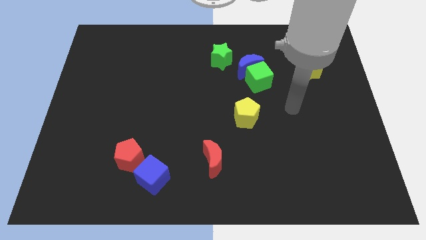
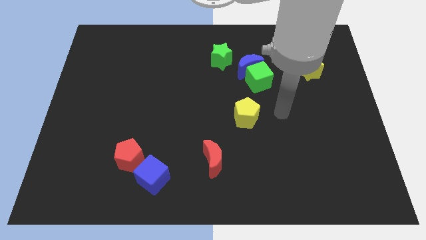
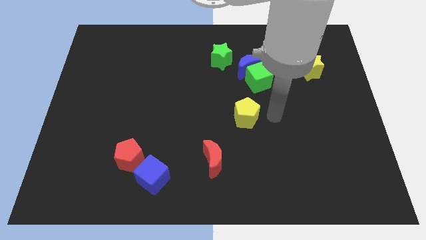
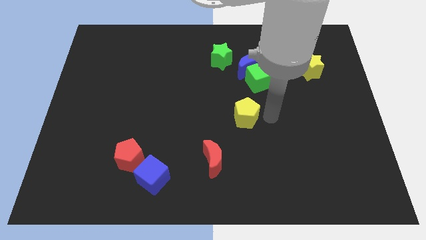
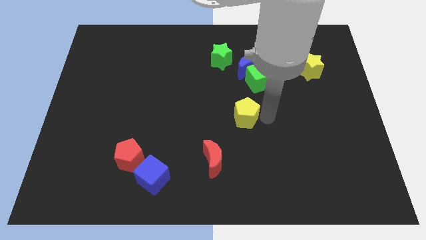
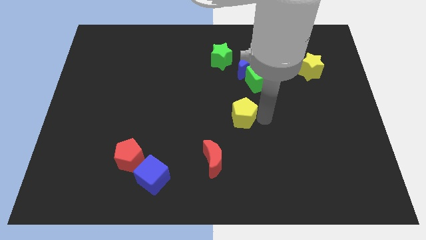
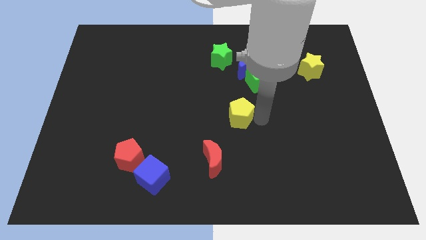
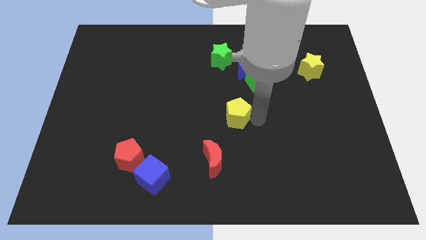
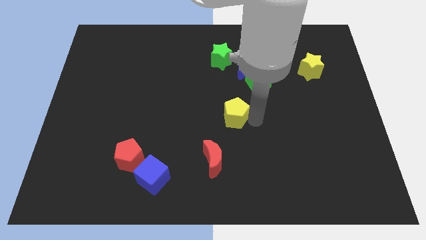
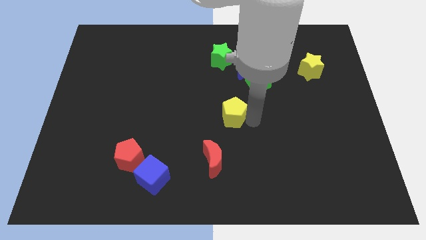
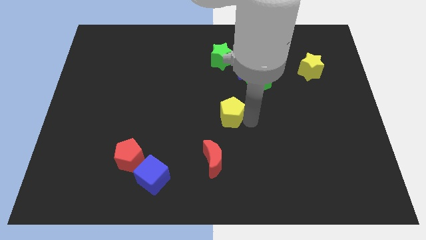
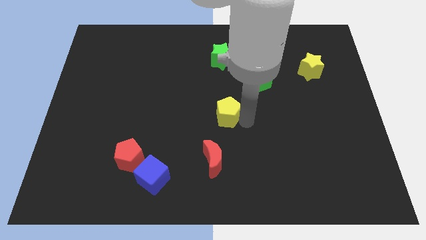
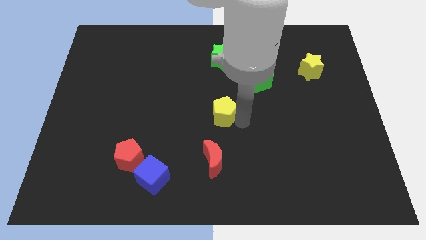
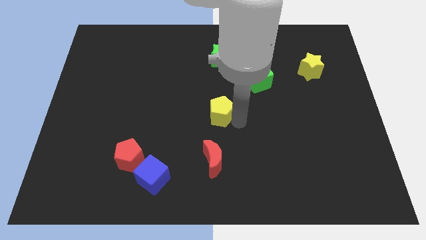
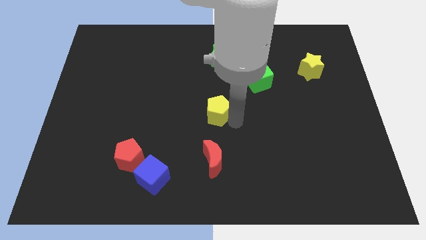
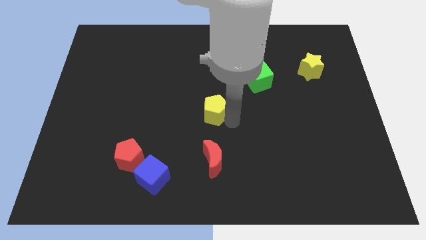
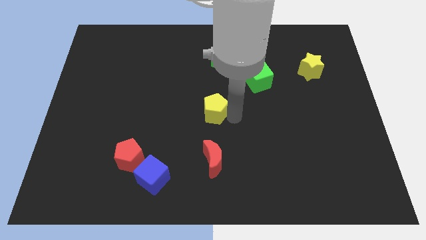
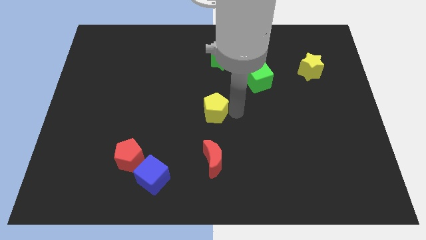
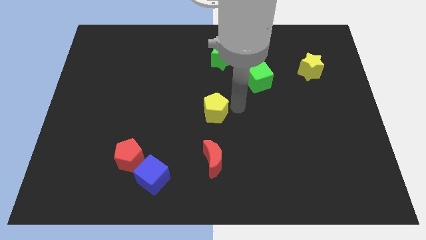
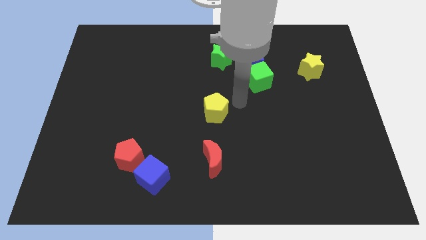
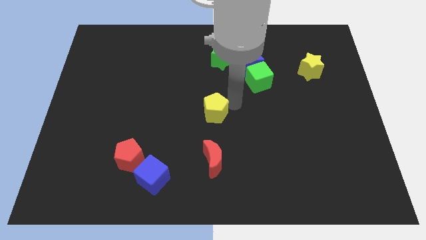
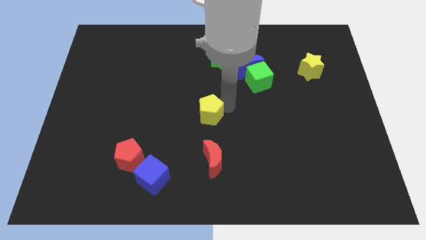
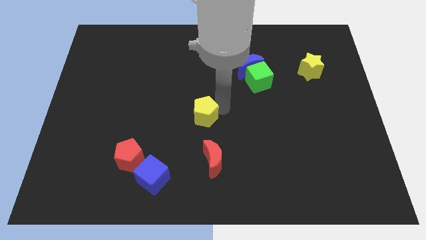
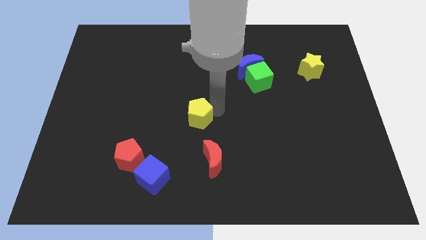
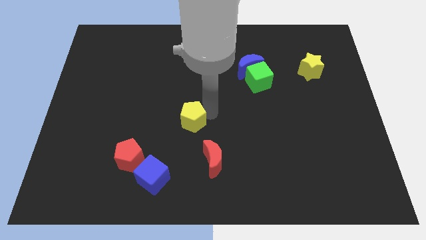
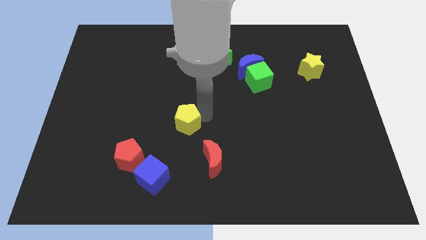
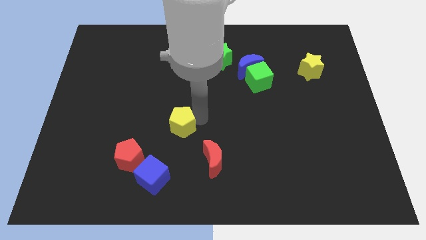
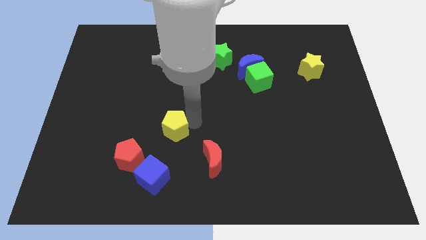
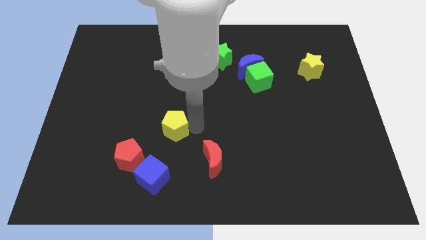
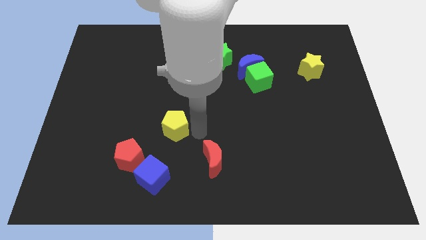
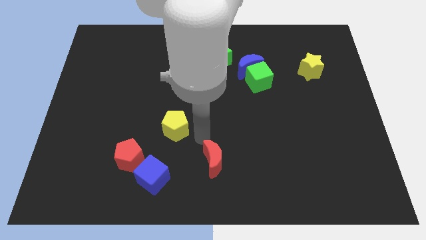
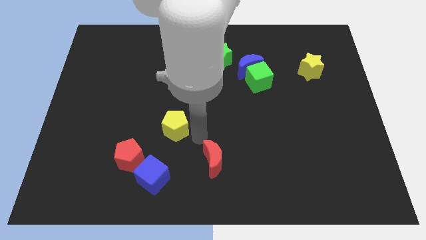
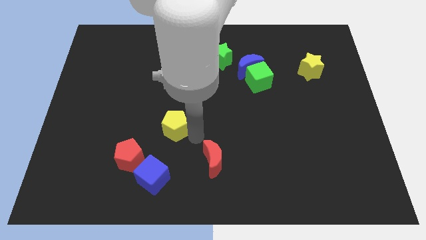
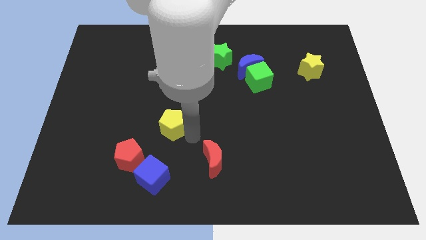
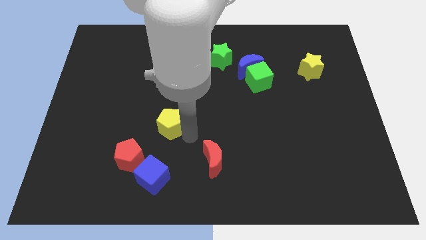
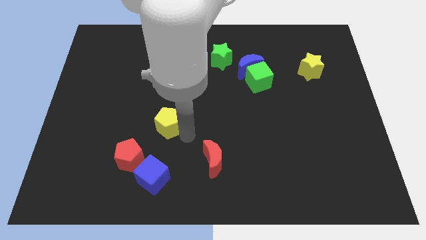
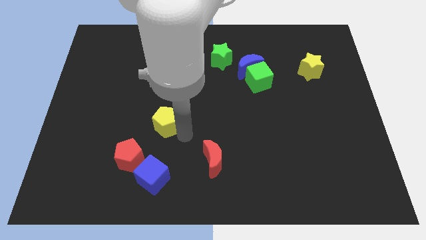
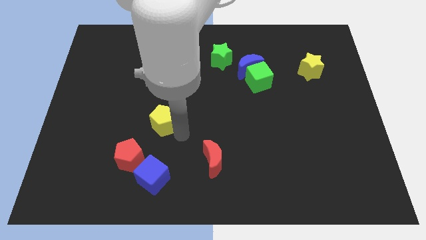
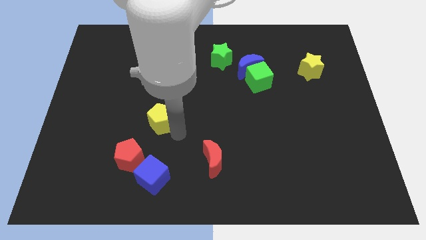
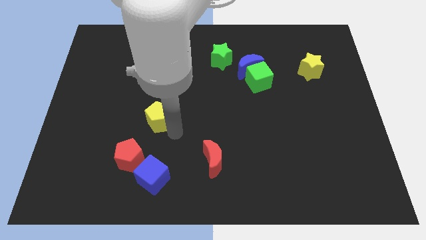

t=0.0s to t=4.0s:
move the yellow pentagon to the left

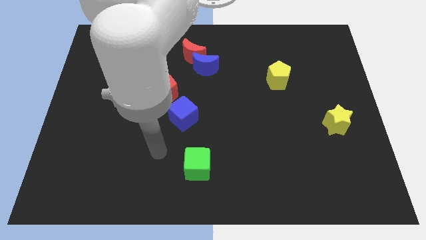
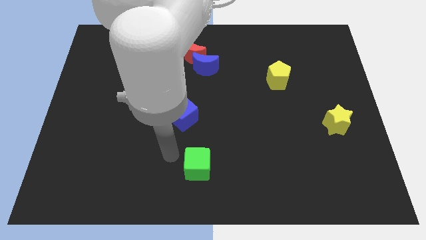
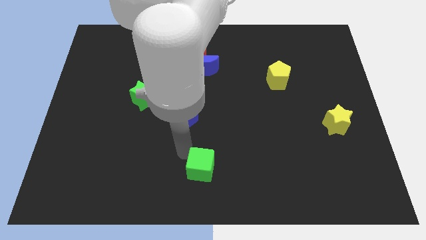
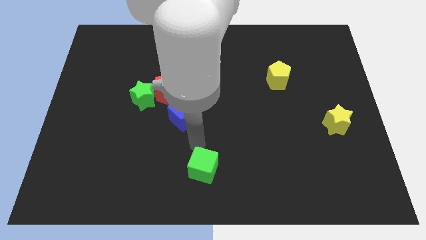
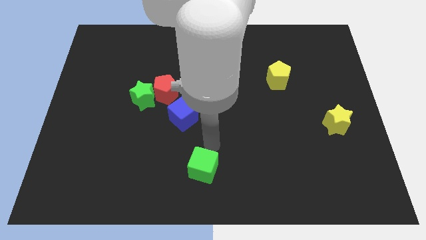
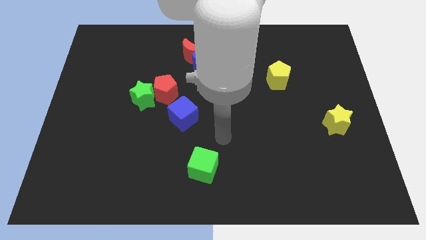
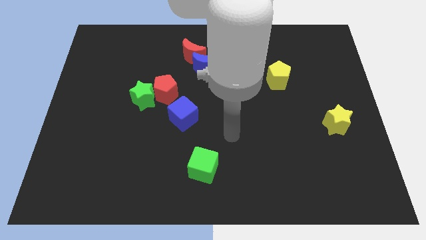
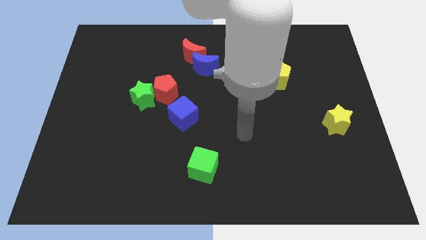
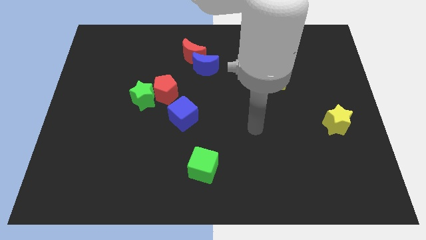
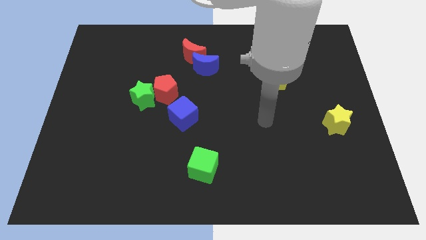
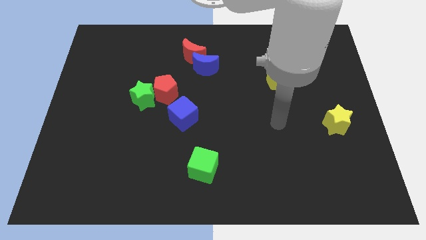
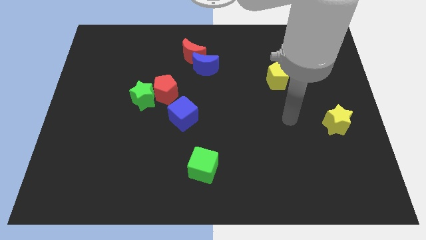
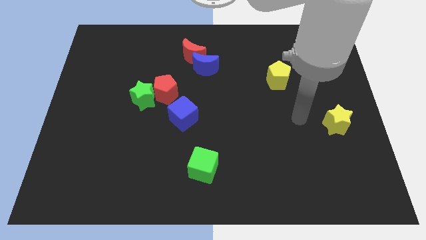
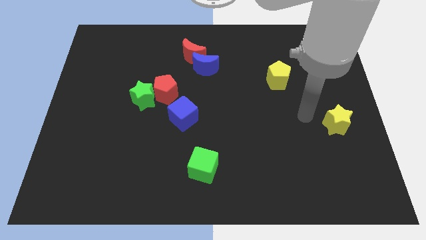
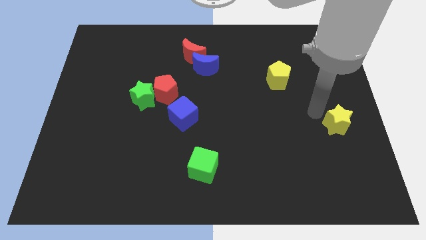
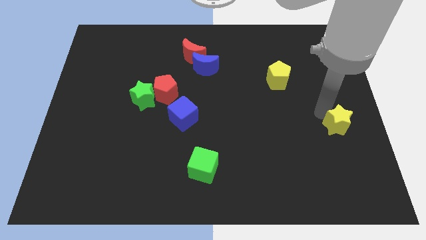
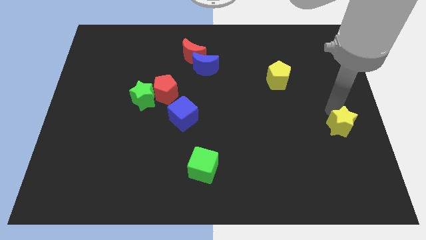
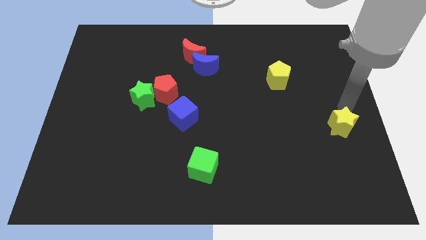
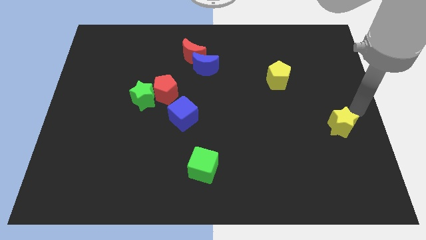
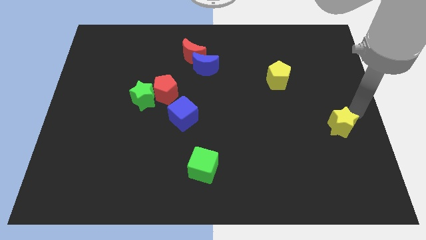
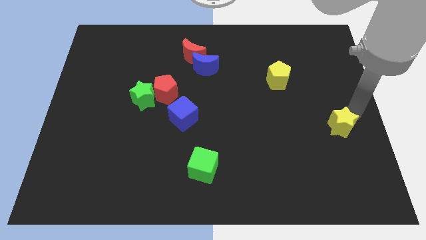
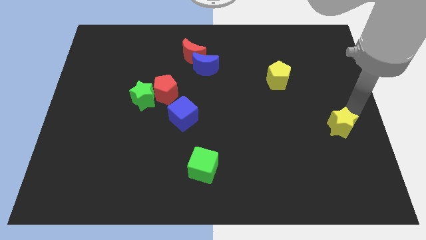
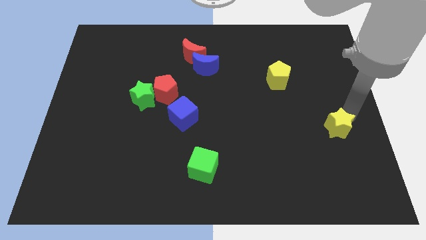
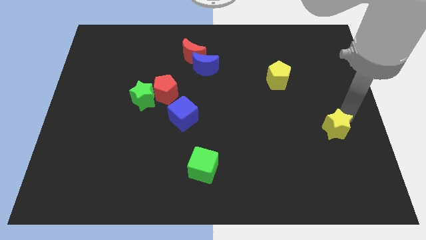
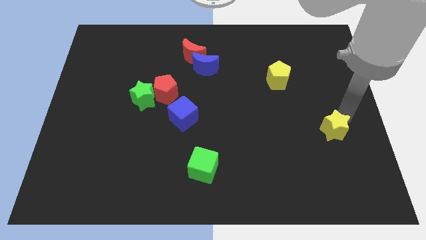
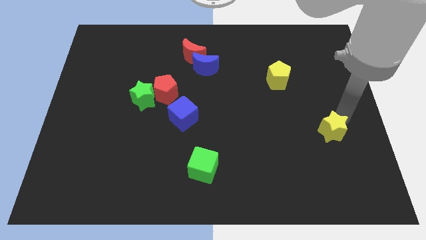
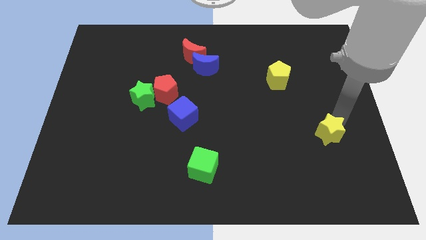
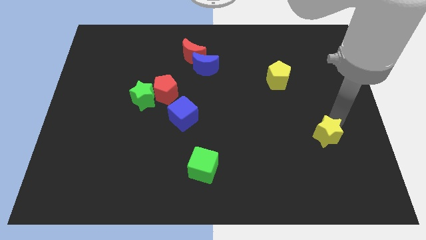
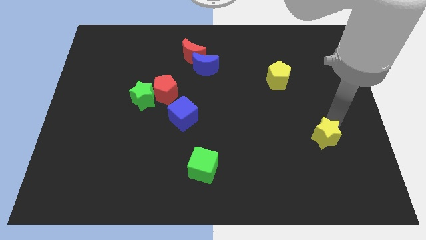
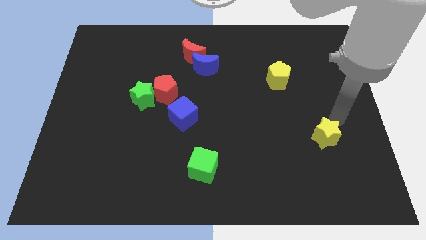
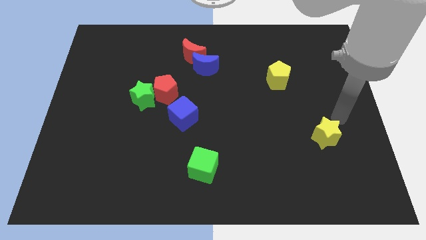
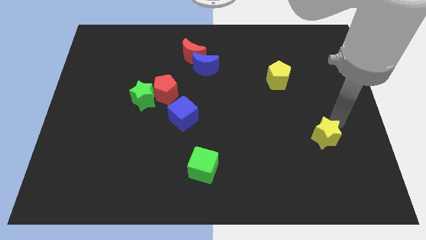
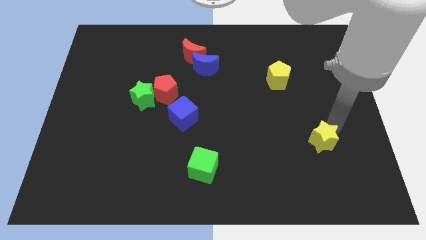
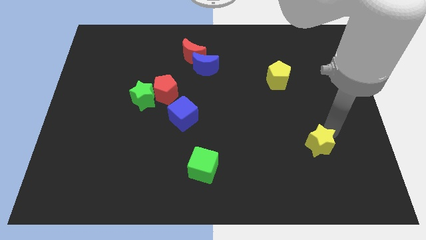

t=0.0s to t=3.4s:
push the yellow star down and to the left diagonally a little bit

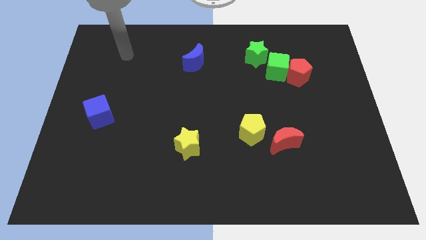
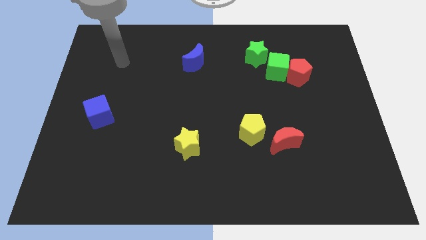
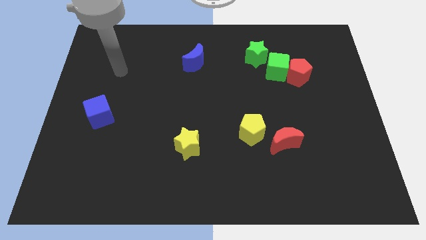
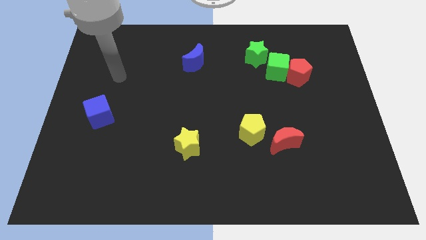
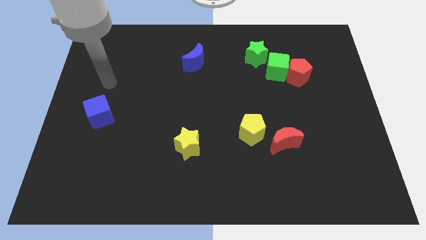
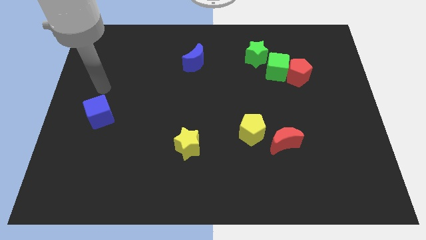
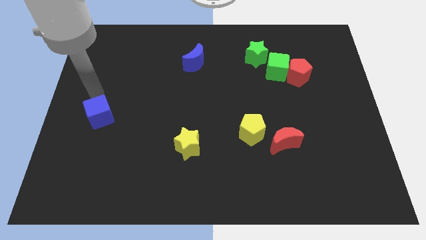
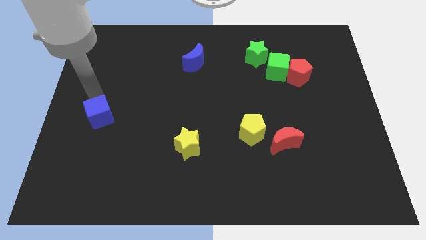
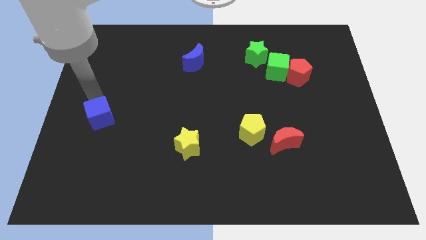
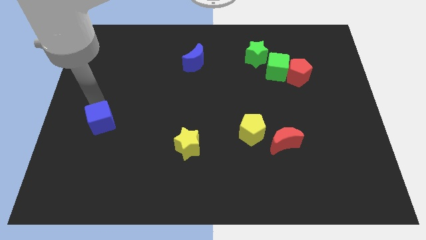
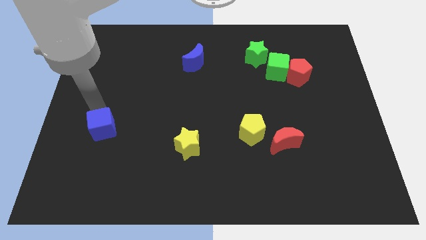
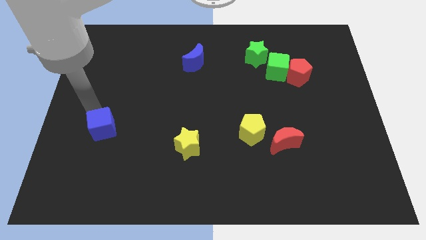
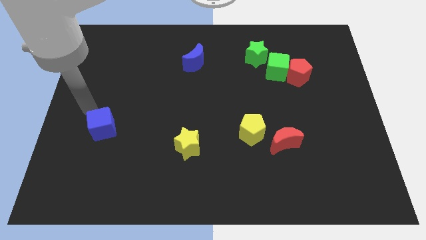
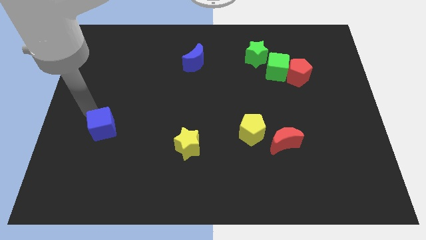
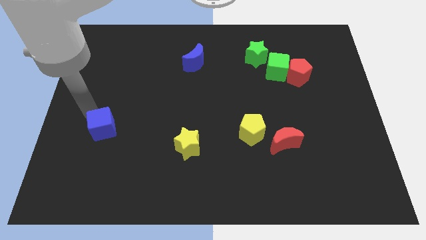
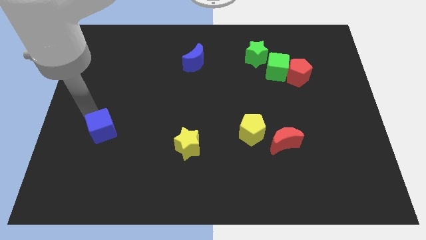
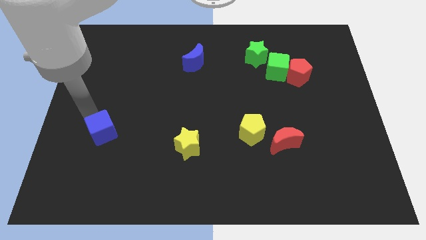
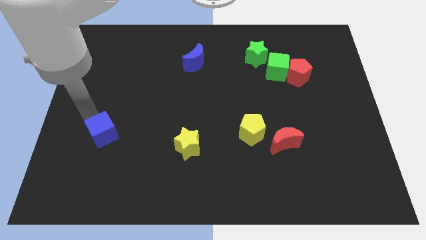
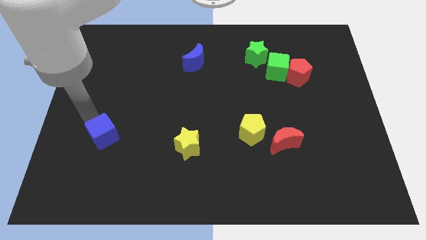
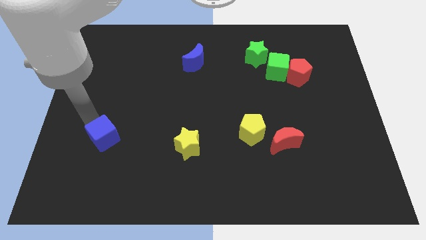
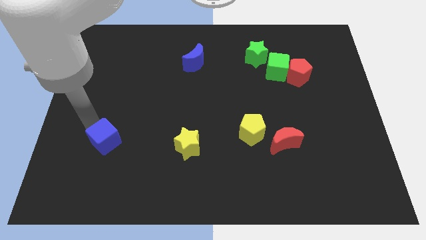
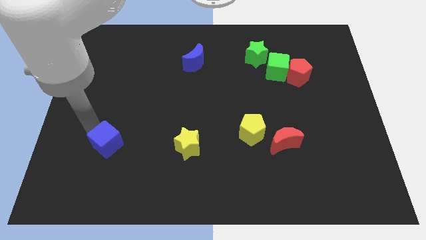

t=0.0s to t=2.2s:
push the blue cube down and to the right a little bit
